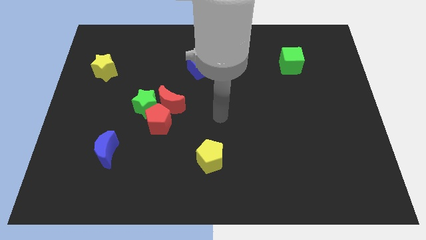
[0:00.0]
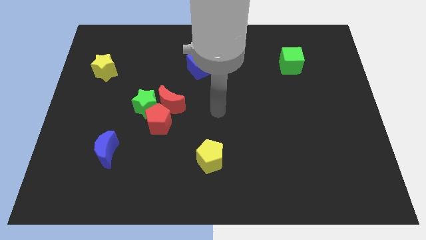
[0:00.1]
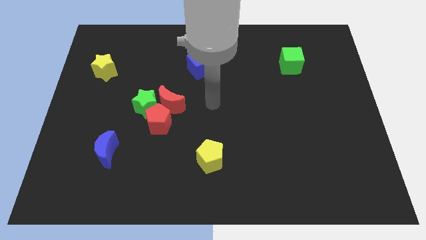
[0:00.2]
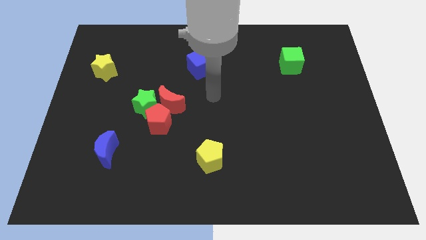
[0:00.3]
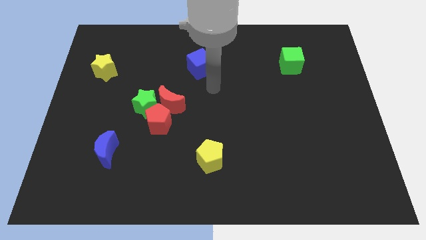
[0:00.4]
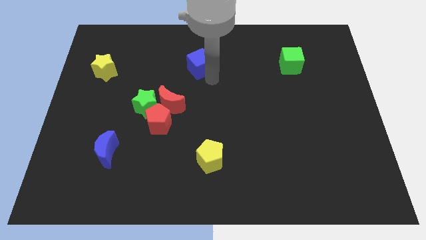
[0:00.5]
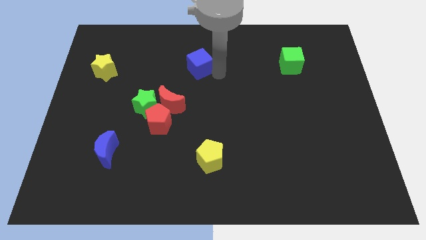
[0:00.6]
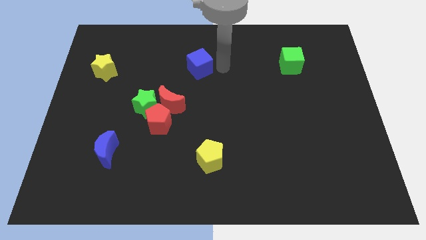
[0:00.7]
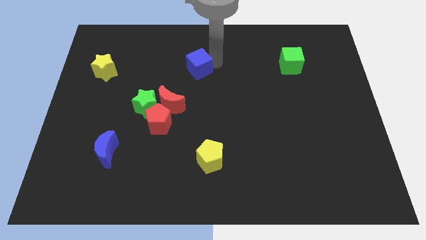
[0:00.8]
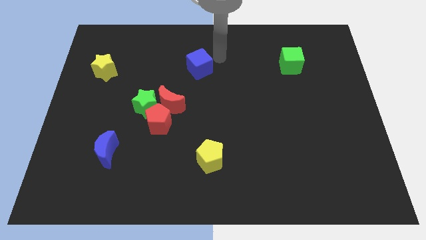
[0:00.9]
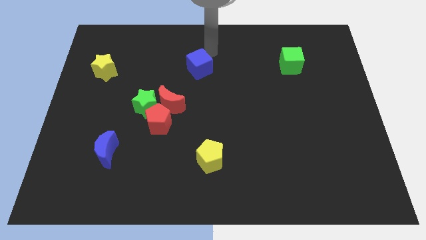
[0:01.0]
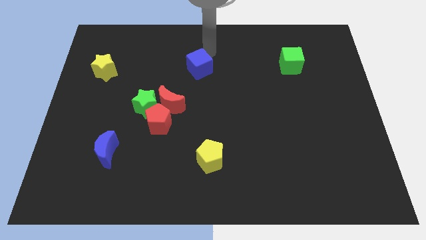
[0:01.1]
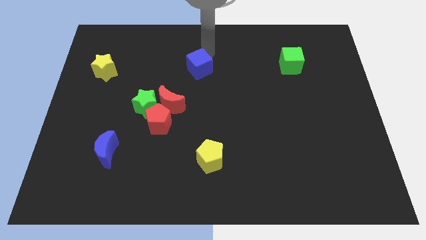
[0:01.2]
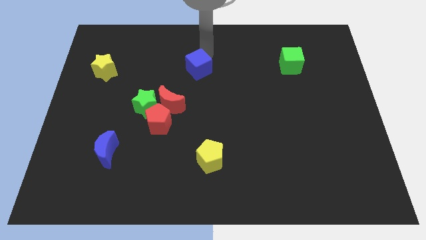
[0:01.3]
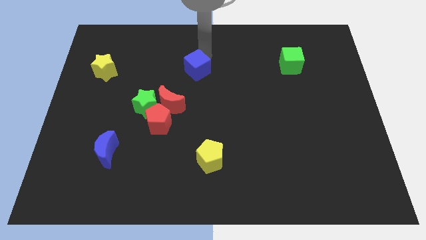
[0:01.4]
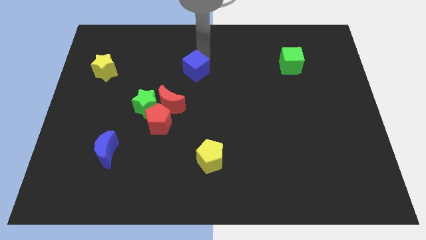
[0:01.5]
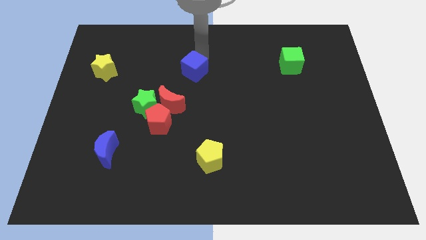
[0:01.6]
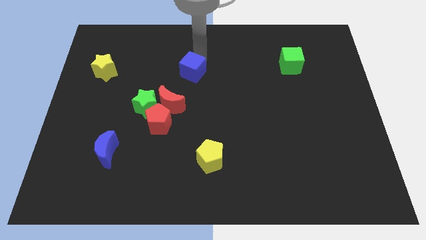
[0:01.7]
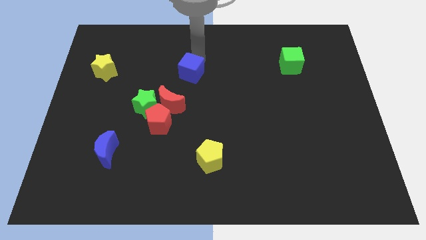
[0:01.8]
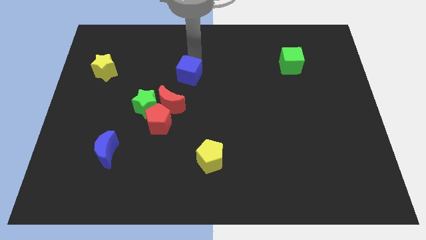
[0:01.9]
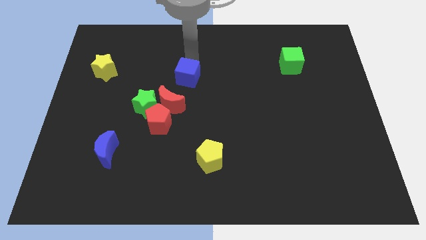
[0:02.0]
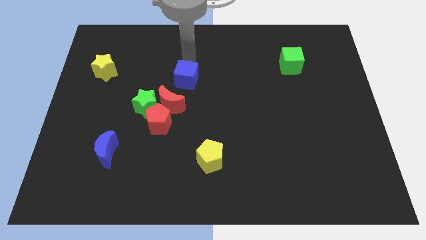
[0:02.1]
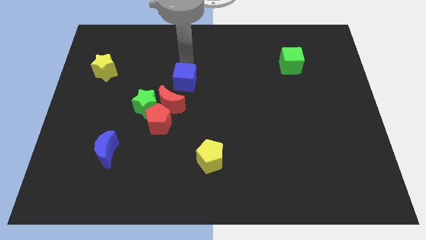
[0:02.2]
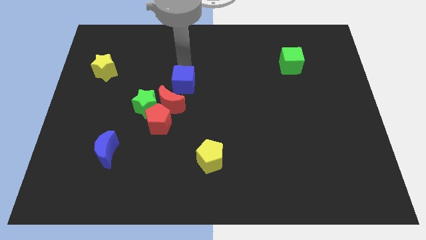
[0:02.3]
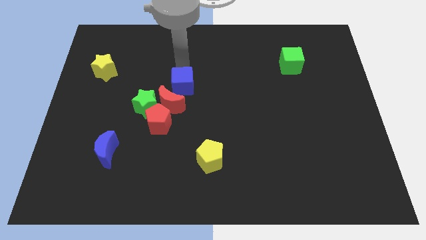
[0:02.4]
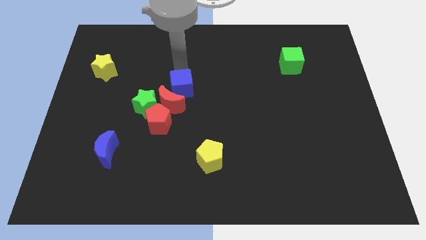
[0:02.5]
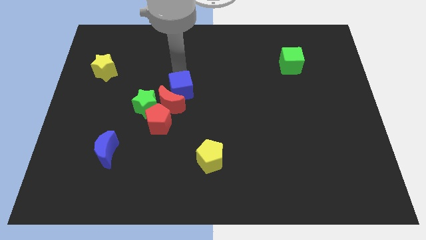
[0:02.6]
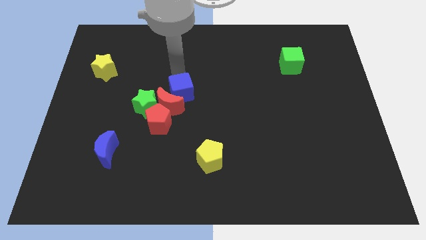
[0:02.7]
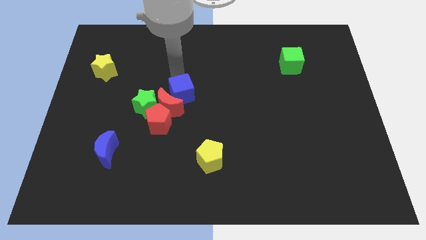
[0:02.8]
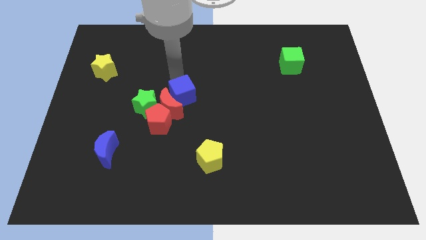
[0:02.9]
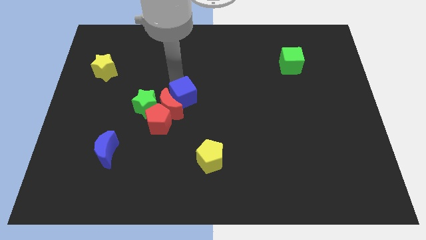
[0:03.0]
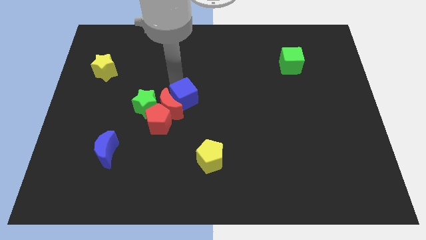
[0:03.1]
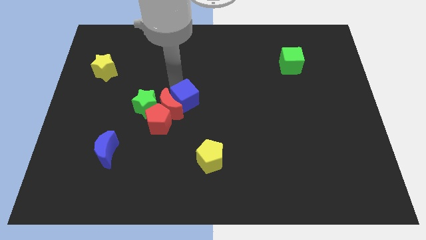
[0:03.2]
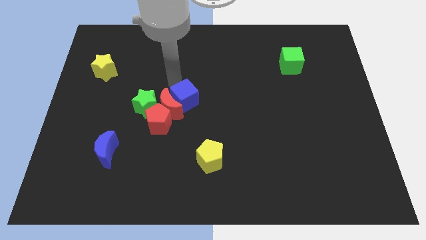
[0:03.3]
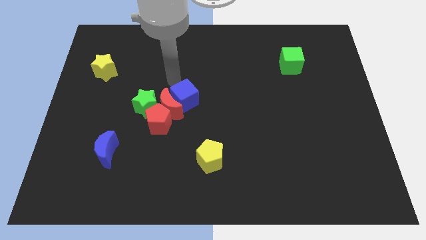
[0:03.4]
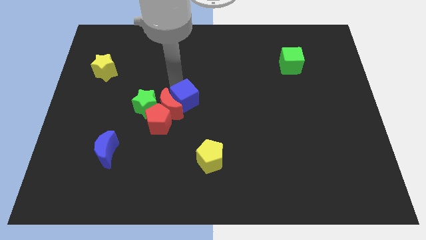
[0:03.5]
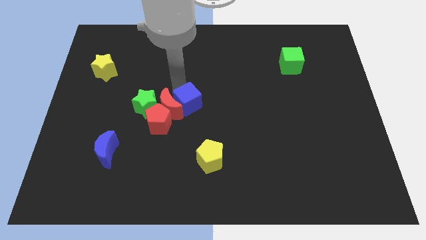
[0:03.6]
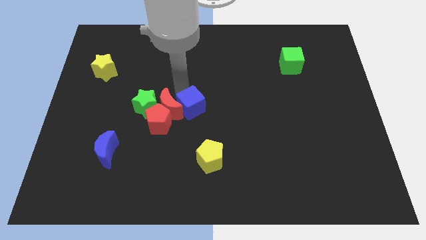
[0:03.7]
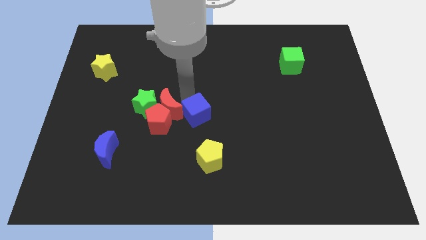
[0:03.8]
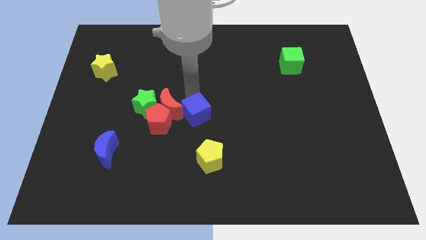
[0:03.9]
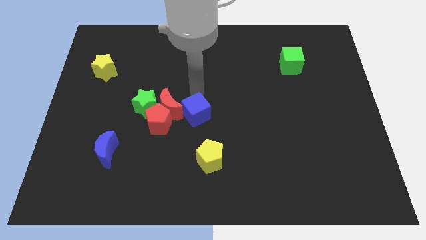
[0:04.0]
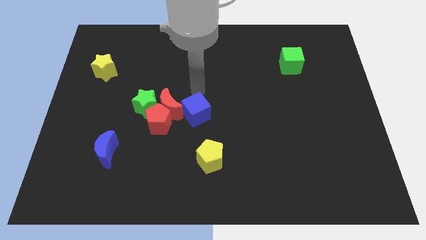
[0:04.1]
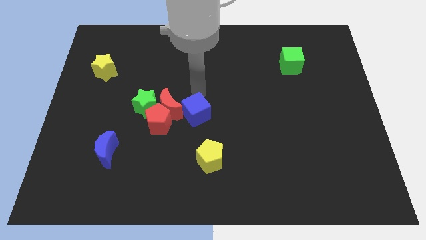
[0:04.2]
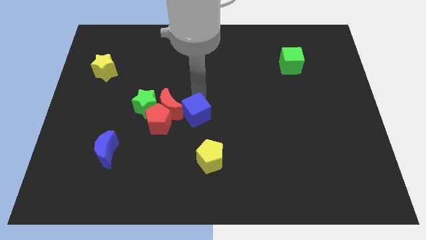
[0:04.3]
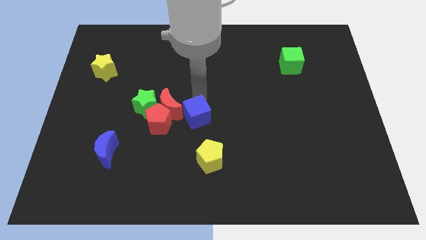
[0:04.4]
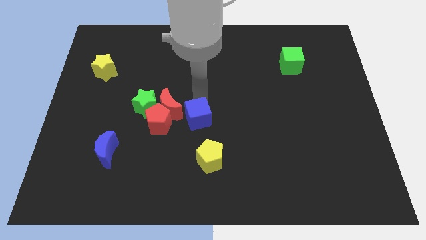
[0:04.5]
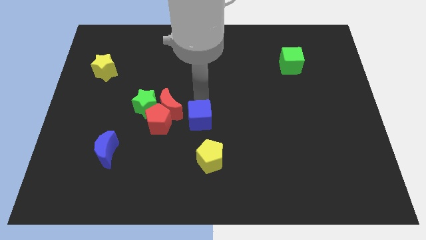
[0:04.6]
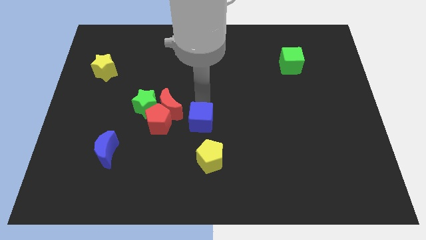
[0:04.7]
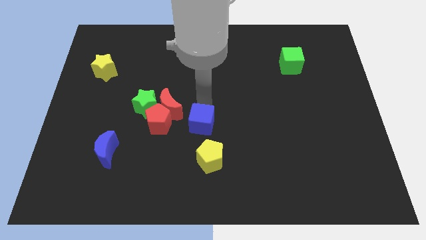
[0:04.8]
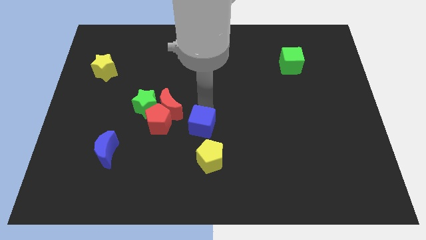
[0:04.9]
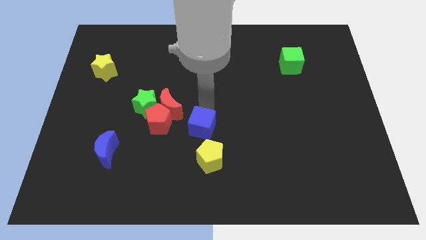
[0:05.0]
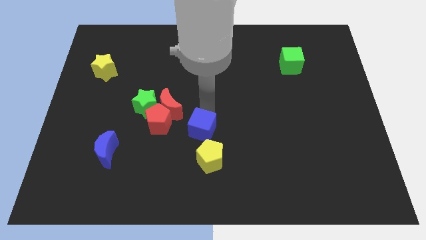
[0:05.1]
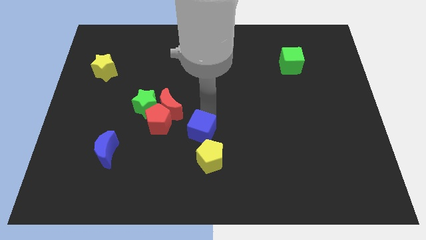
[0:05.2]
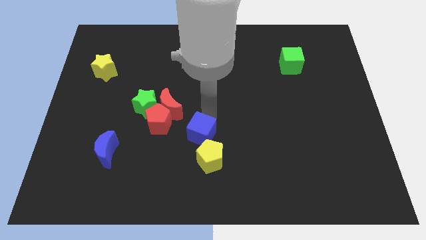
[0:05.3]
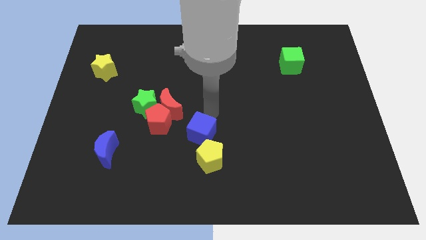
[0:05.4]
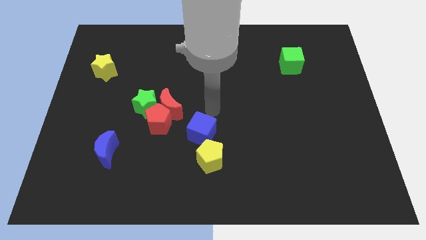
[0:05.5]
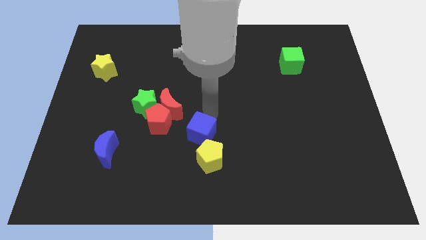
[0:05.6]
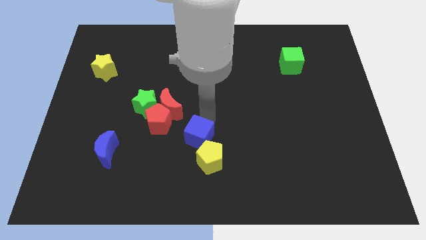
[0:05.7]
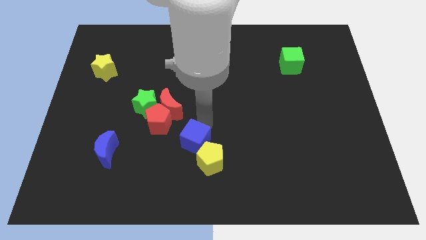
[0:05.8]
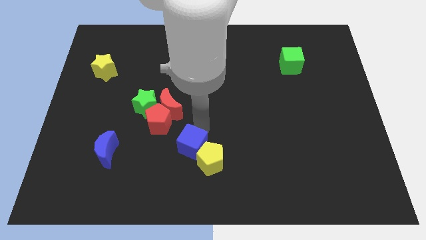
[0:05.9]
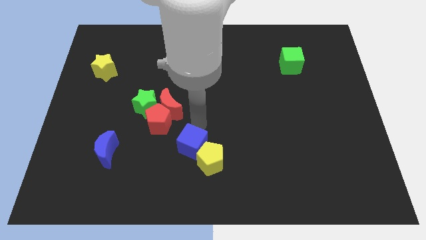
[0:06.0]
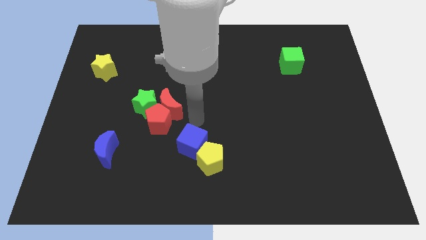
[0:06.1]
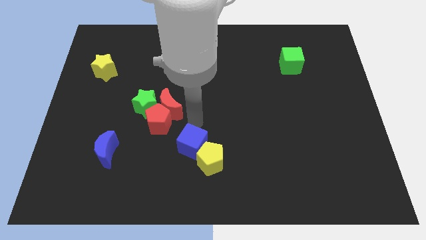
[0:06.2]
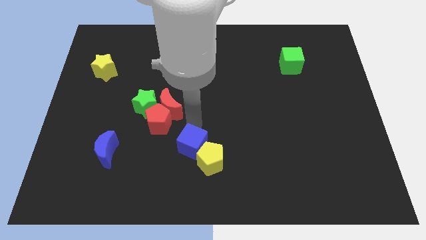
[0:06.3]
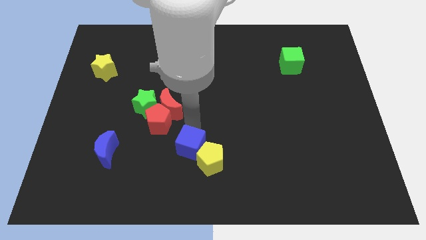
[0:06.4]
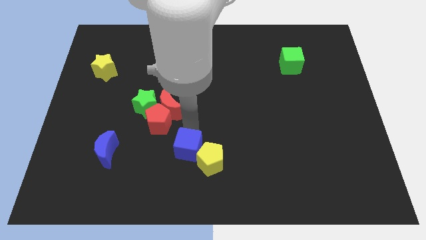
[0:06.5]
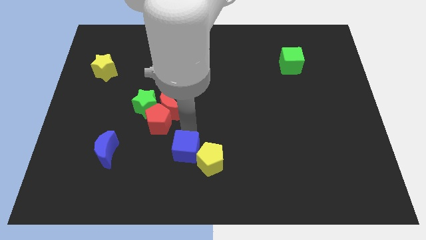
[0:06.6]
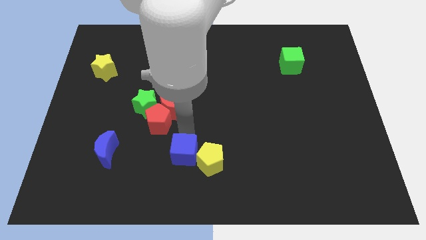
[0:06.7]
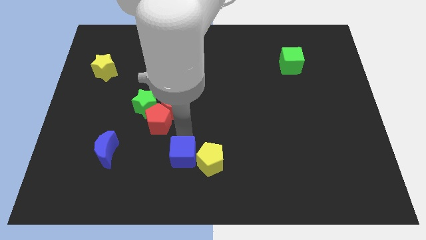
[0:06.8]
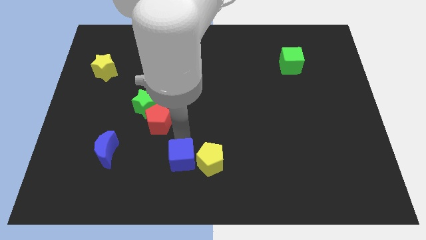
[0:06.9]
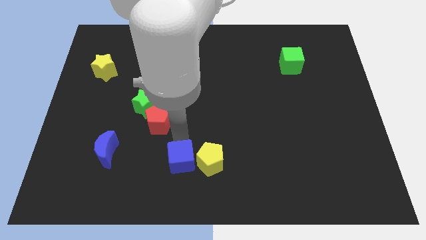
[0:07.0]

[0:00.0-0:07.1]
push the blue cube to the bottom
